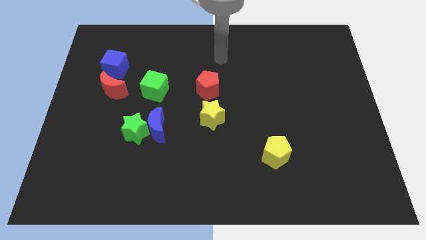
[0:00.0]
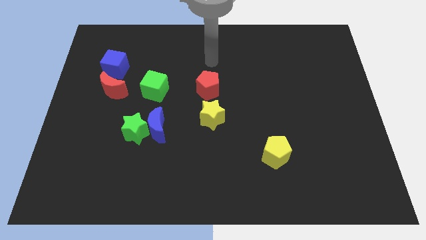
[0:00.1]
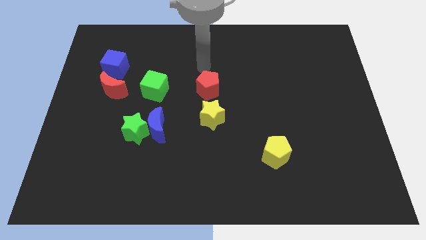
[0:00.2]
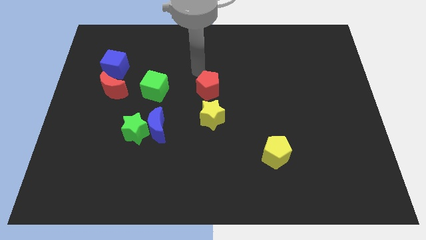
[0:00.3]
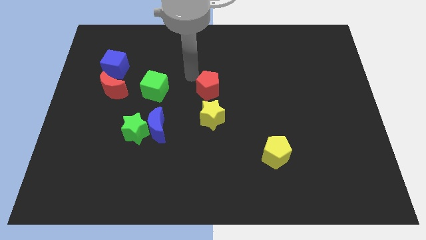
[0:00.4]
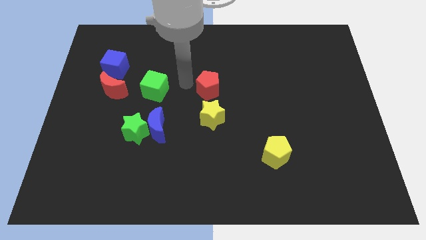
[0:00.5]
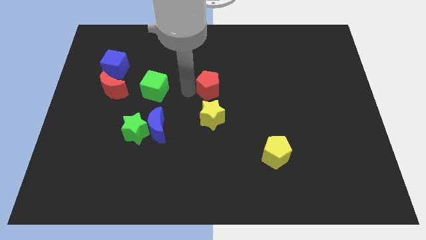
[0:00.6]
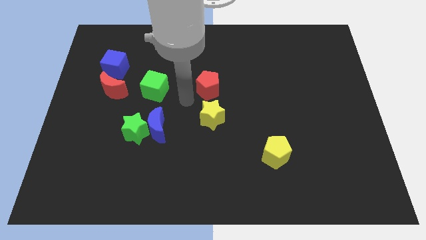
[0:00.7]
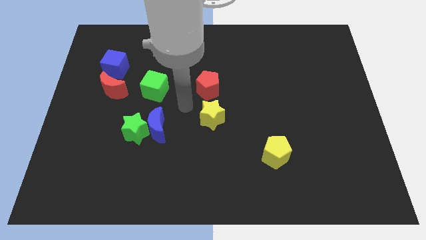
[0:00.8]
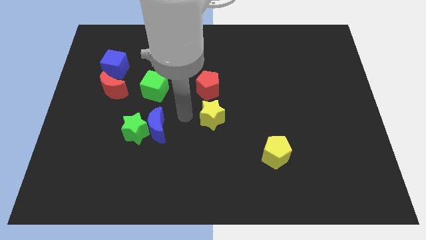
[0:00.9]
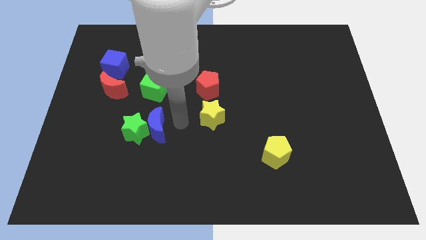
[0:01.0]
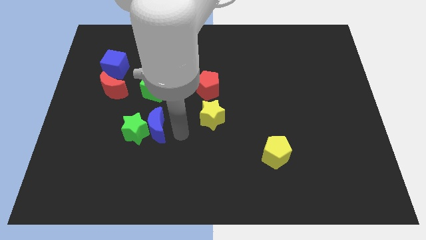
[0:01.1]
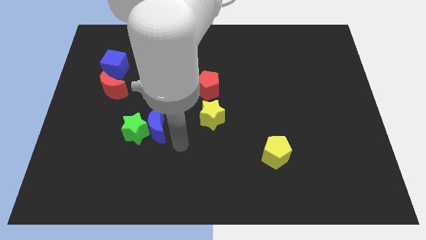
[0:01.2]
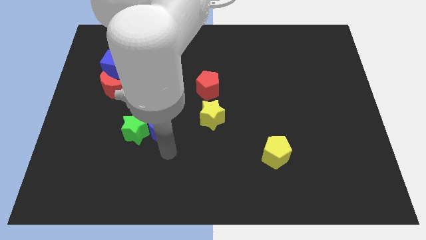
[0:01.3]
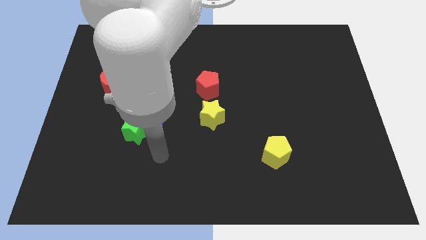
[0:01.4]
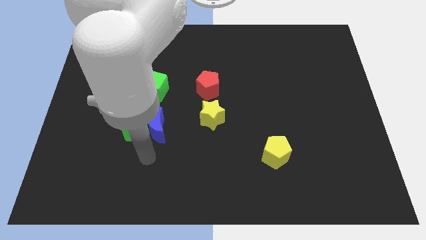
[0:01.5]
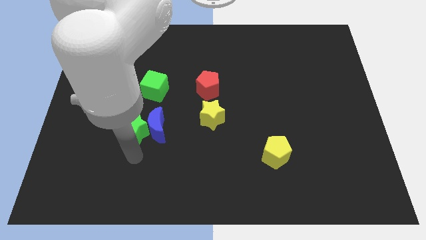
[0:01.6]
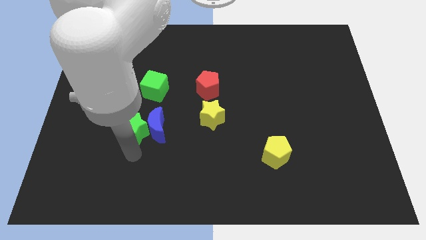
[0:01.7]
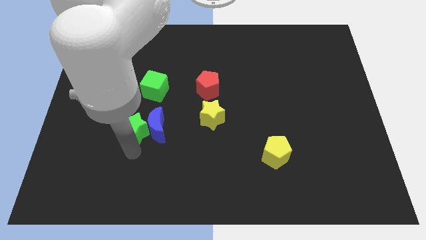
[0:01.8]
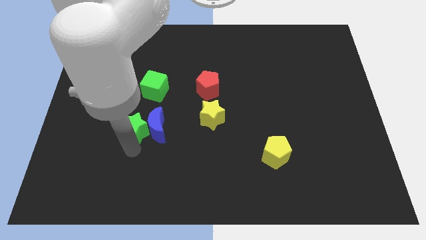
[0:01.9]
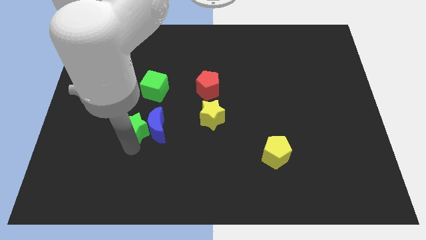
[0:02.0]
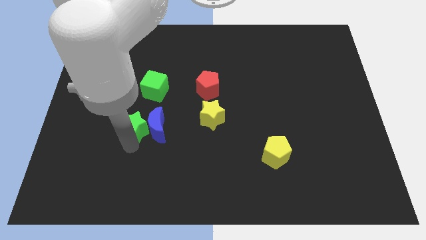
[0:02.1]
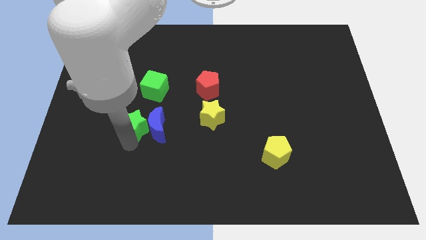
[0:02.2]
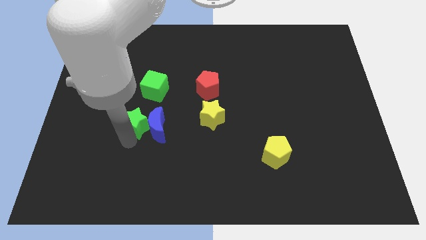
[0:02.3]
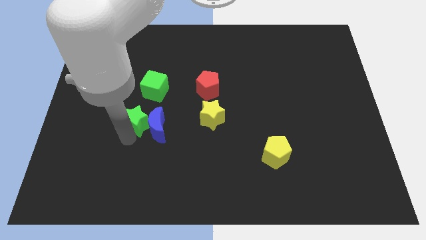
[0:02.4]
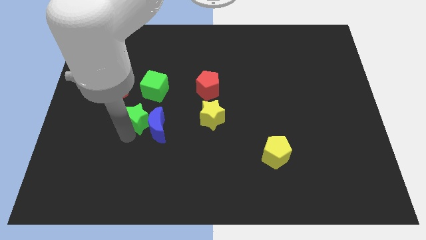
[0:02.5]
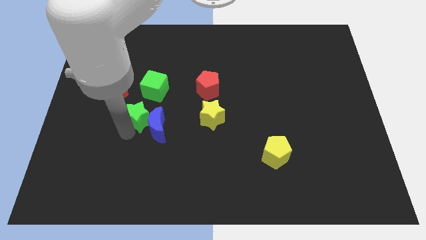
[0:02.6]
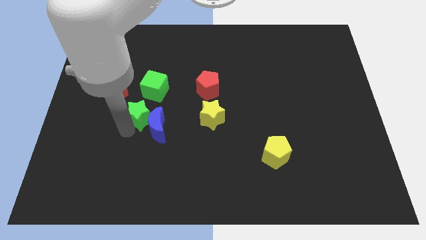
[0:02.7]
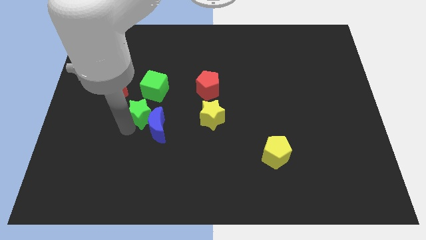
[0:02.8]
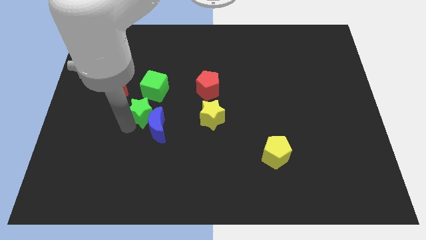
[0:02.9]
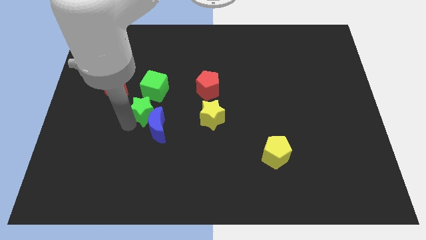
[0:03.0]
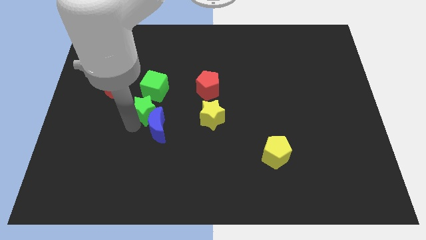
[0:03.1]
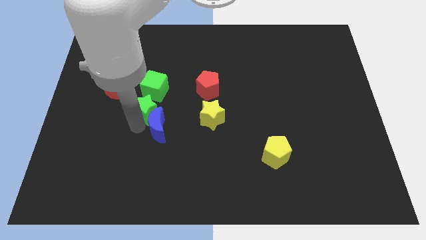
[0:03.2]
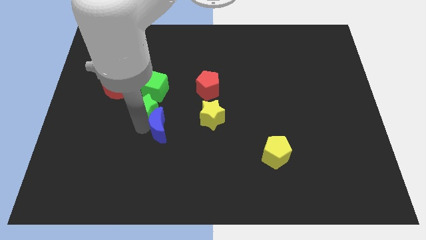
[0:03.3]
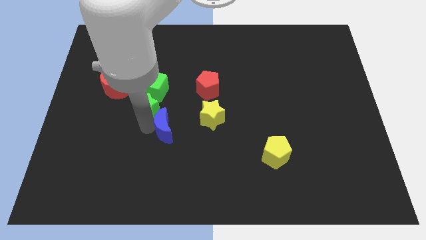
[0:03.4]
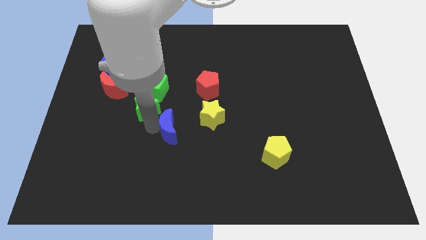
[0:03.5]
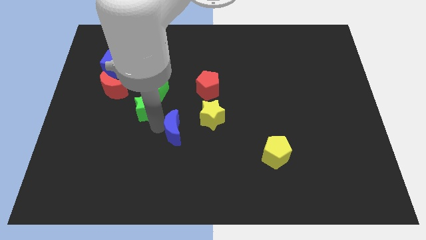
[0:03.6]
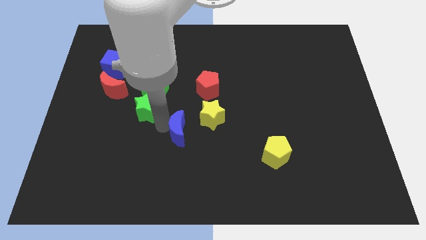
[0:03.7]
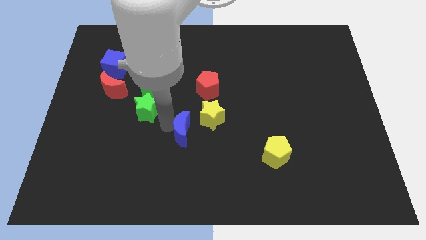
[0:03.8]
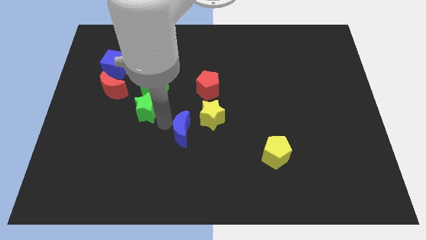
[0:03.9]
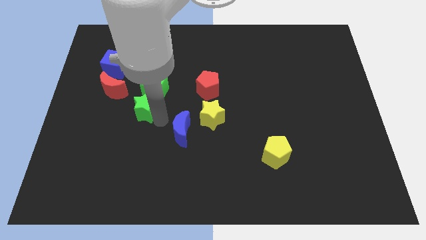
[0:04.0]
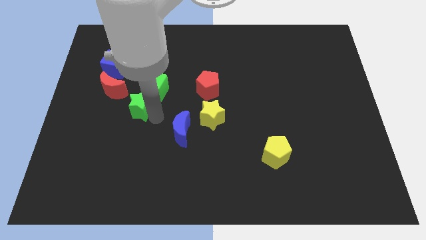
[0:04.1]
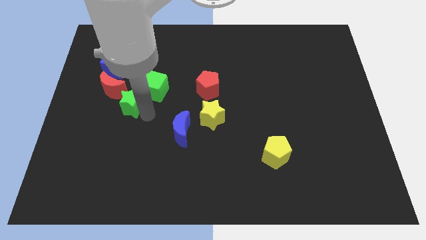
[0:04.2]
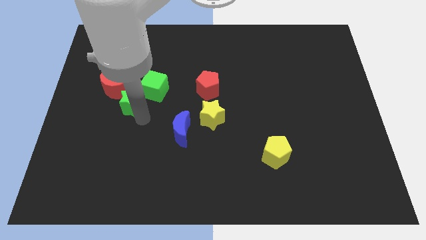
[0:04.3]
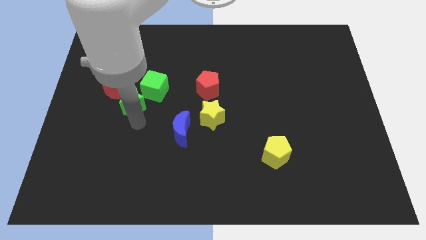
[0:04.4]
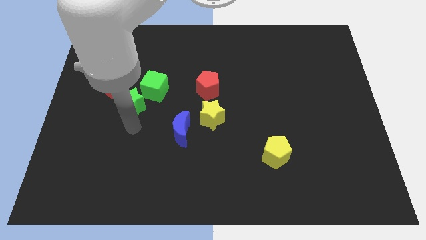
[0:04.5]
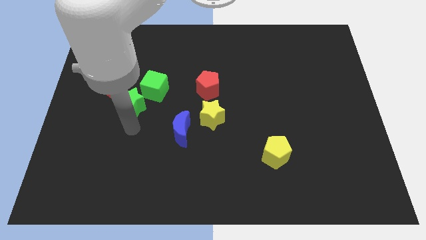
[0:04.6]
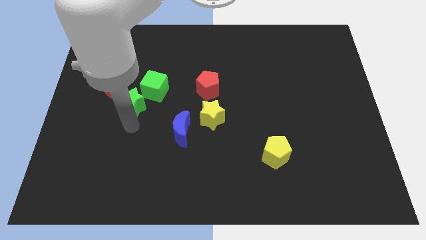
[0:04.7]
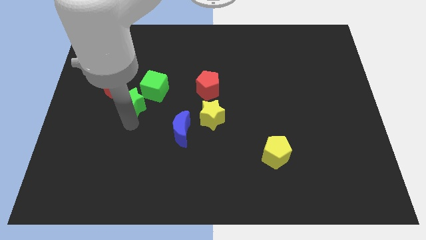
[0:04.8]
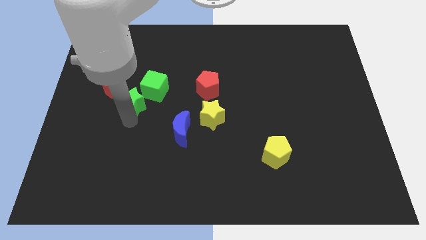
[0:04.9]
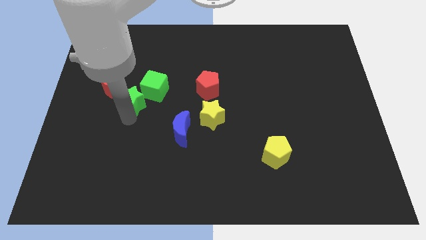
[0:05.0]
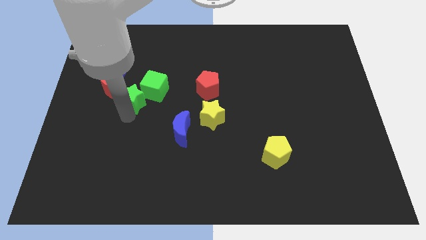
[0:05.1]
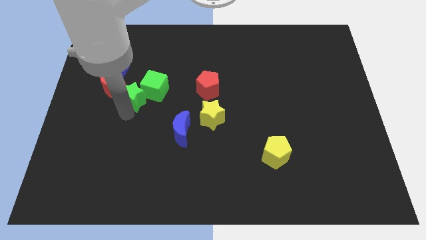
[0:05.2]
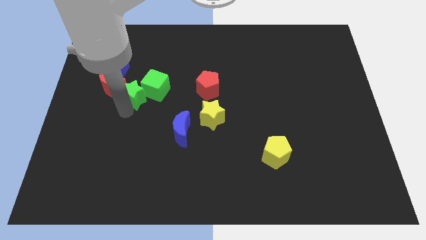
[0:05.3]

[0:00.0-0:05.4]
slide the green star to the bottom right of the blue cube

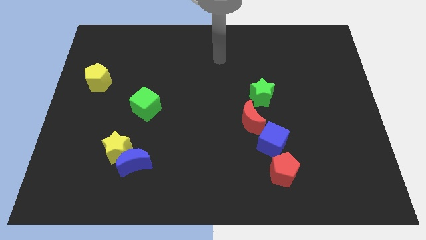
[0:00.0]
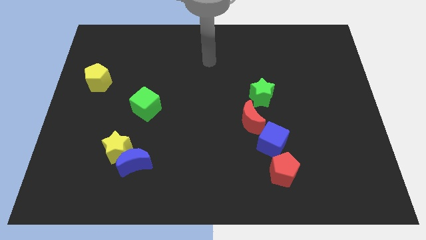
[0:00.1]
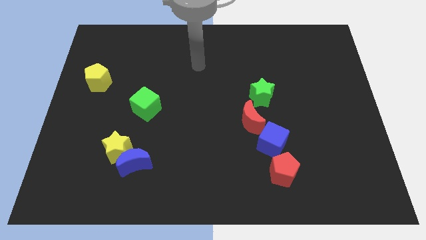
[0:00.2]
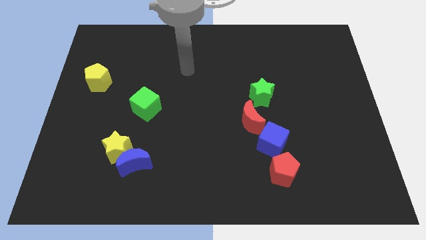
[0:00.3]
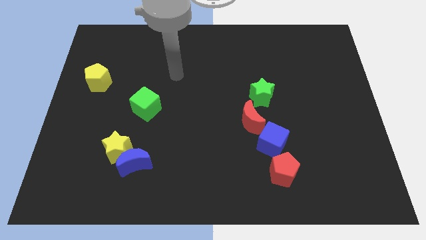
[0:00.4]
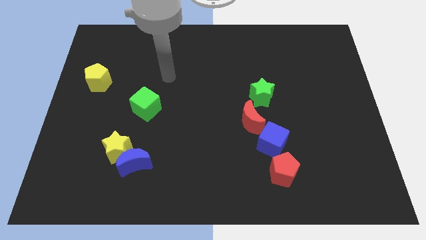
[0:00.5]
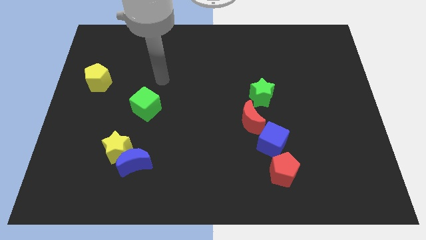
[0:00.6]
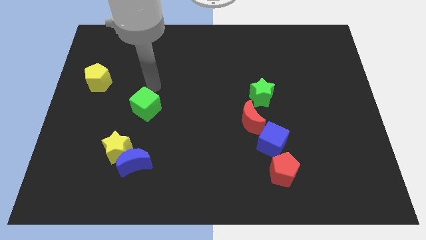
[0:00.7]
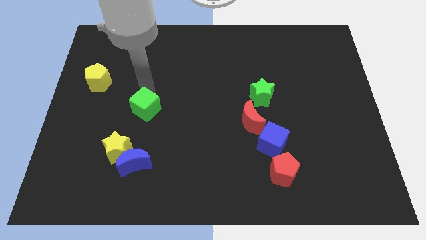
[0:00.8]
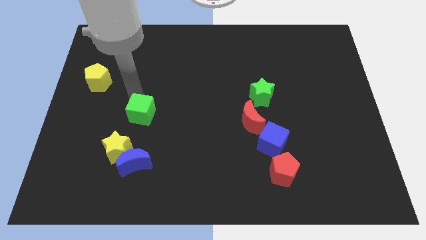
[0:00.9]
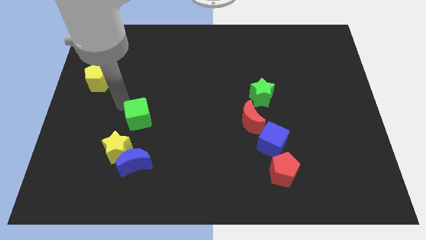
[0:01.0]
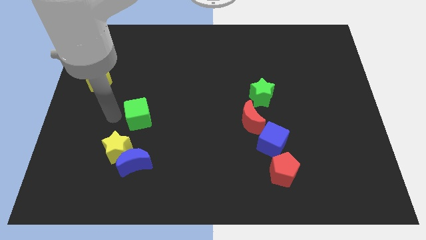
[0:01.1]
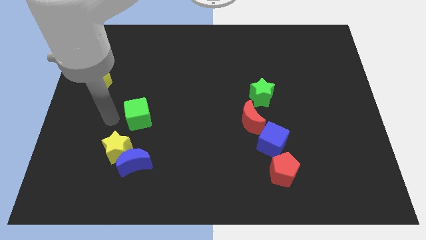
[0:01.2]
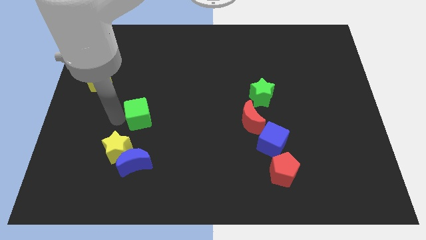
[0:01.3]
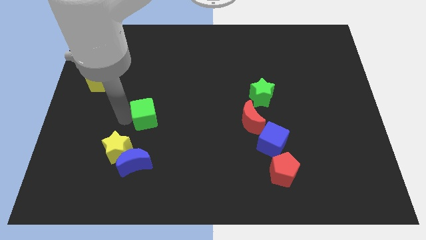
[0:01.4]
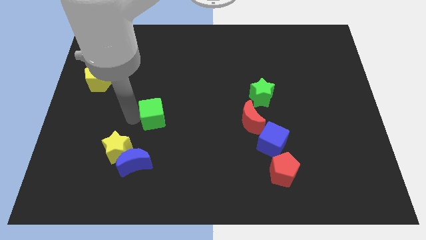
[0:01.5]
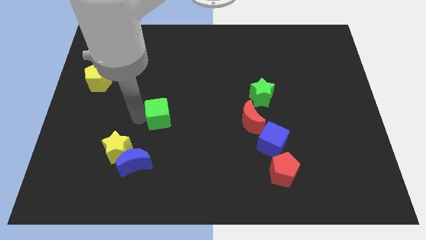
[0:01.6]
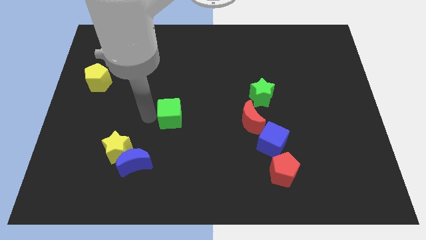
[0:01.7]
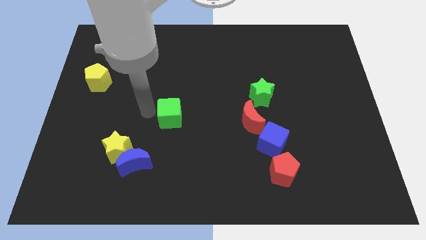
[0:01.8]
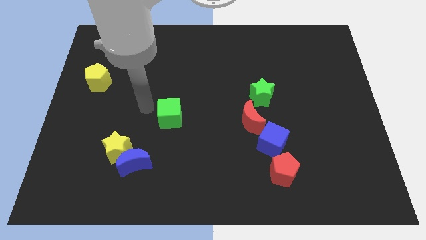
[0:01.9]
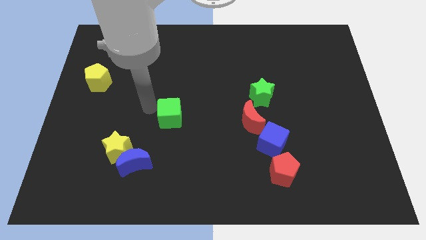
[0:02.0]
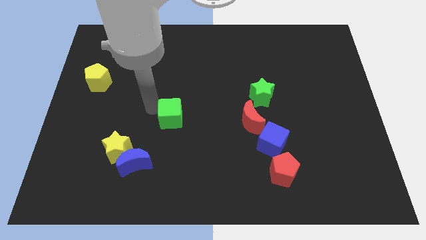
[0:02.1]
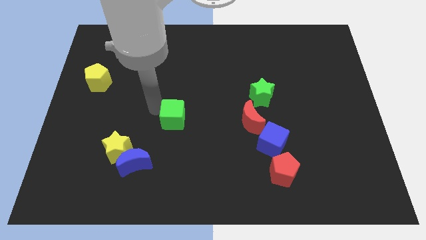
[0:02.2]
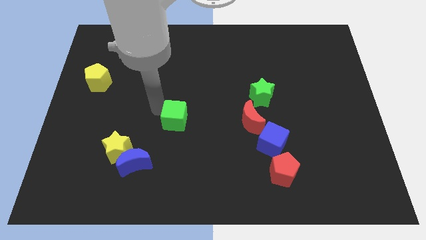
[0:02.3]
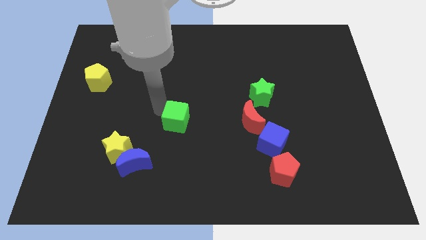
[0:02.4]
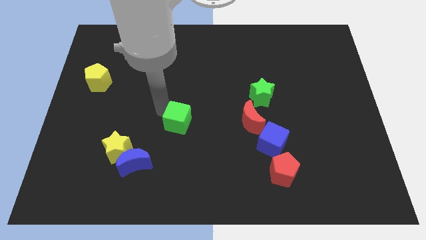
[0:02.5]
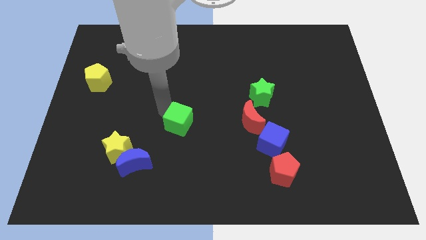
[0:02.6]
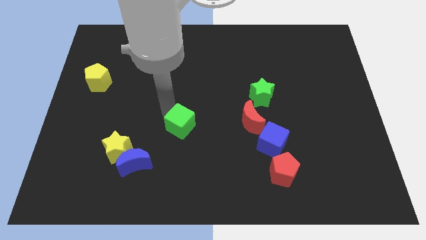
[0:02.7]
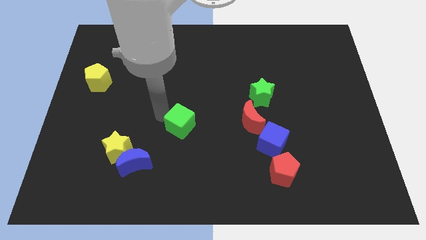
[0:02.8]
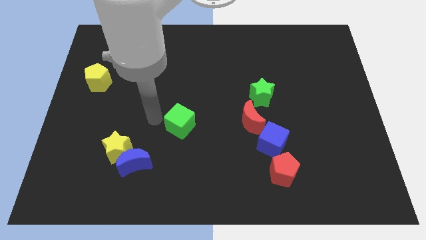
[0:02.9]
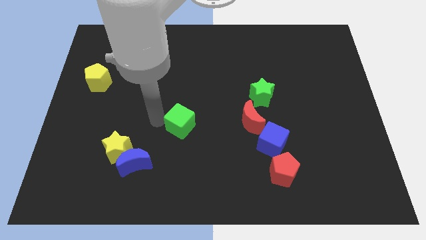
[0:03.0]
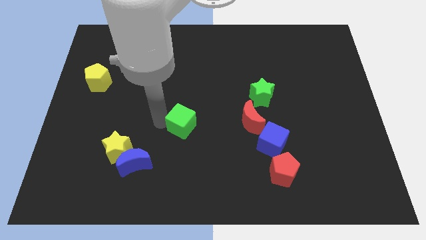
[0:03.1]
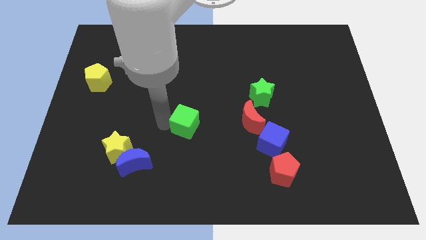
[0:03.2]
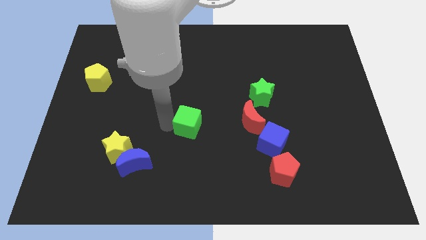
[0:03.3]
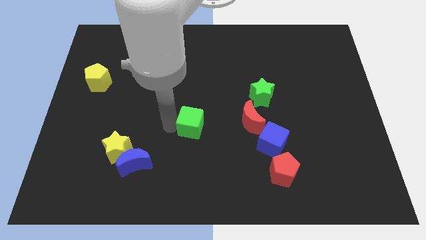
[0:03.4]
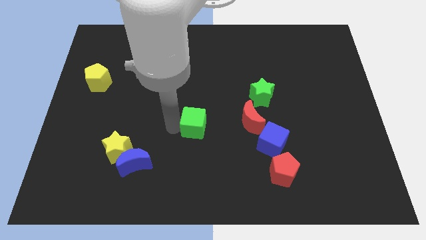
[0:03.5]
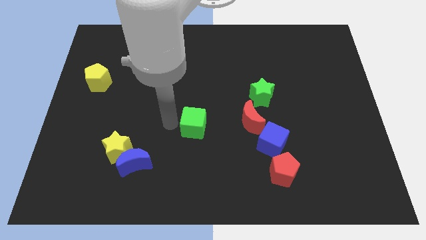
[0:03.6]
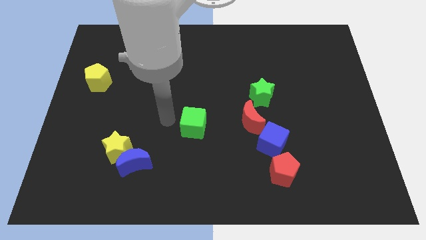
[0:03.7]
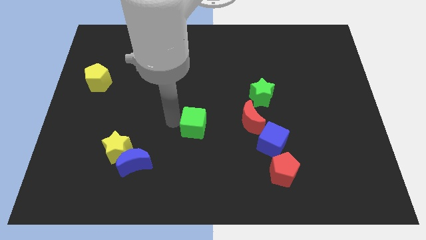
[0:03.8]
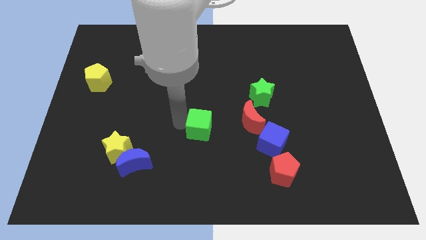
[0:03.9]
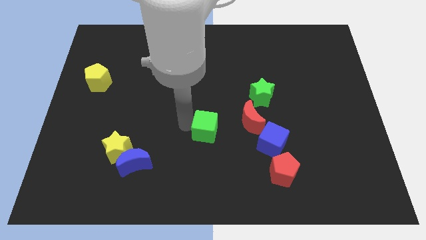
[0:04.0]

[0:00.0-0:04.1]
put the green cube to the left of the blue cube
